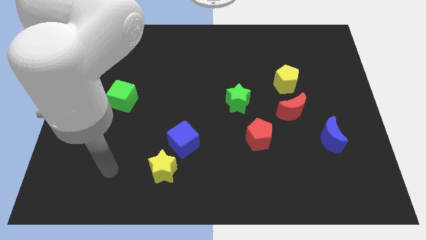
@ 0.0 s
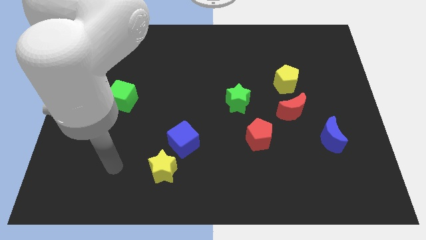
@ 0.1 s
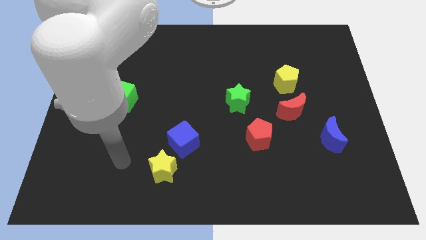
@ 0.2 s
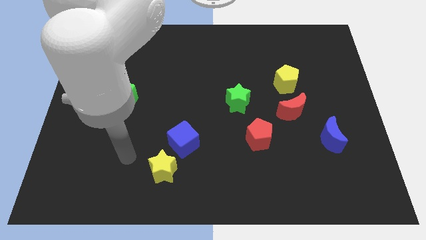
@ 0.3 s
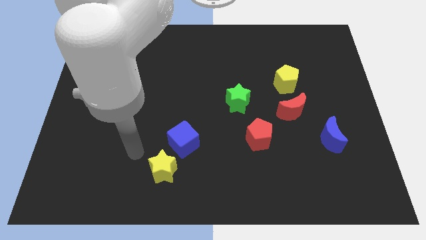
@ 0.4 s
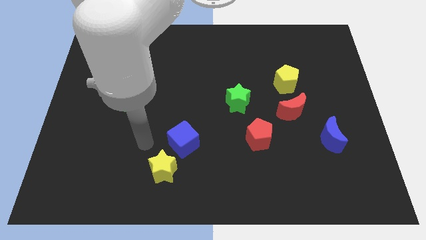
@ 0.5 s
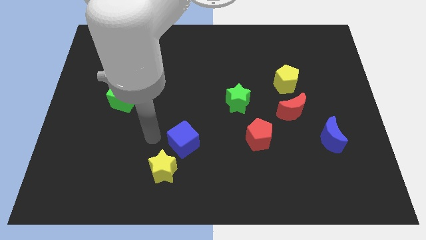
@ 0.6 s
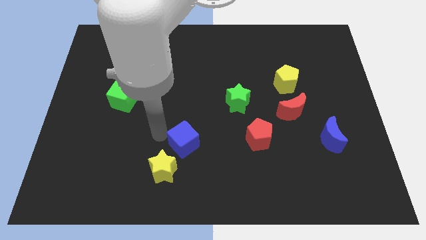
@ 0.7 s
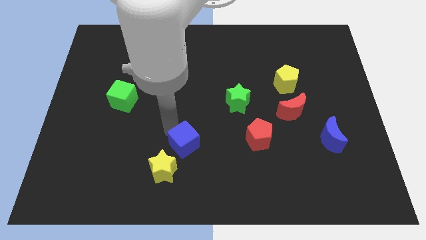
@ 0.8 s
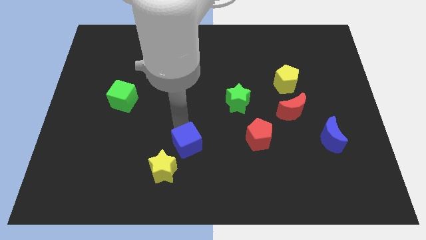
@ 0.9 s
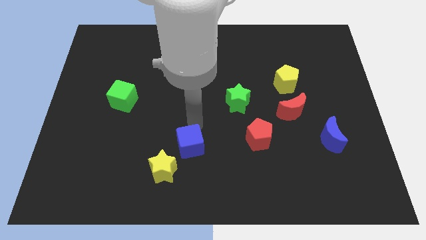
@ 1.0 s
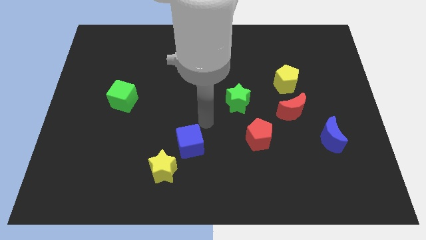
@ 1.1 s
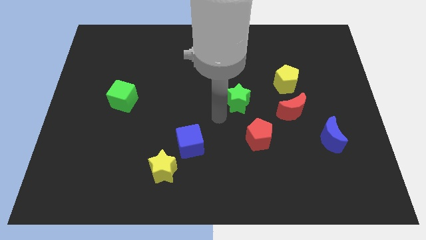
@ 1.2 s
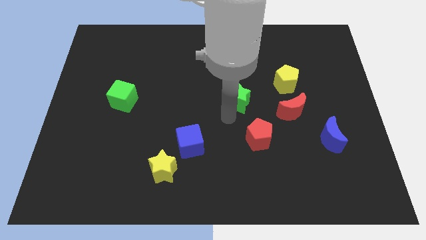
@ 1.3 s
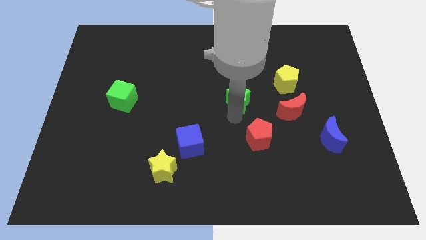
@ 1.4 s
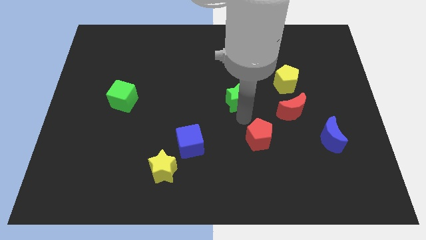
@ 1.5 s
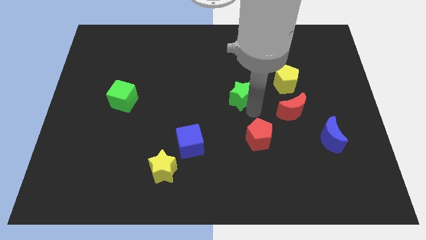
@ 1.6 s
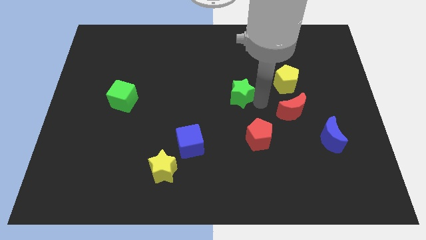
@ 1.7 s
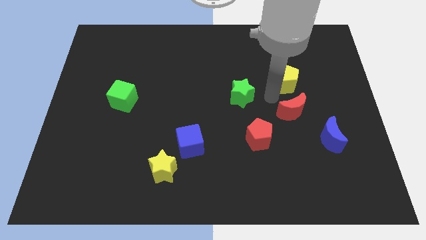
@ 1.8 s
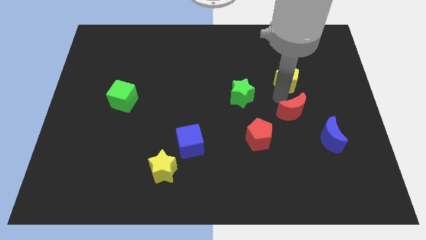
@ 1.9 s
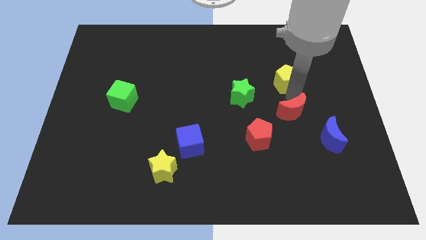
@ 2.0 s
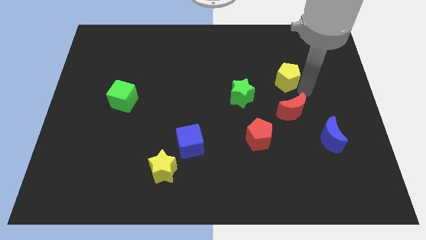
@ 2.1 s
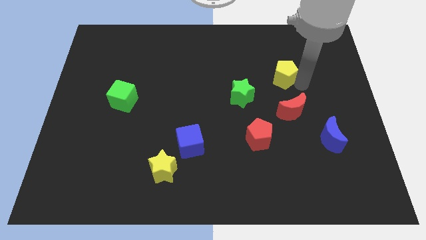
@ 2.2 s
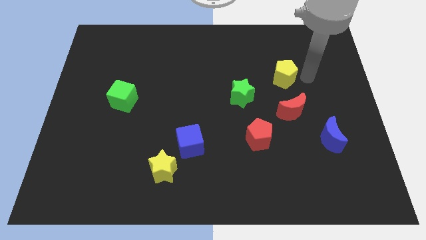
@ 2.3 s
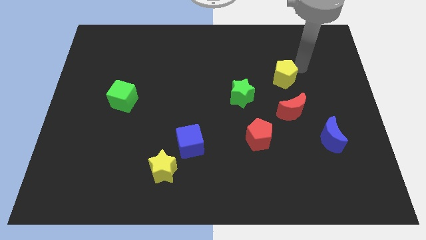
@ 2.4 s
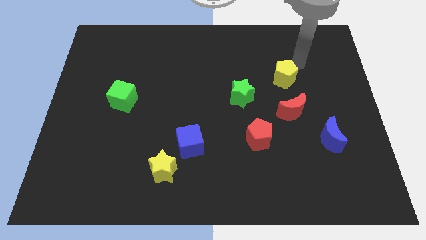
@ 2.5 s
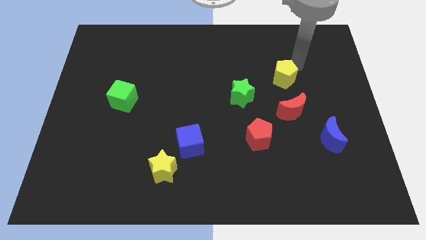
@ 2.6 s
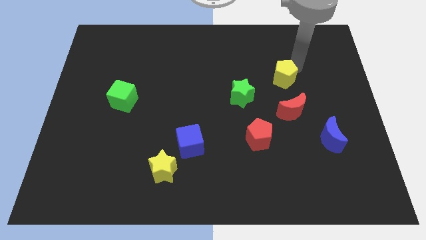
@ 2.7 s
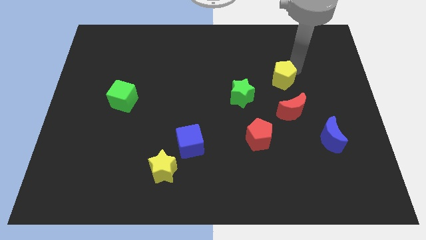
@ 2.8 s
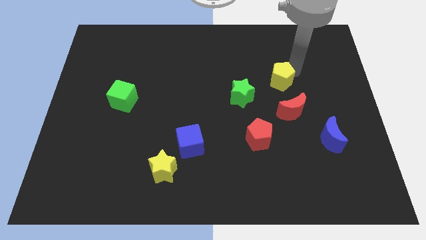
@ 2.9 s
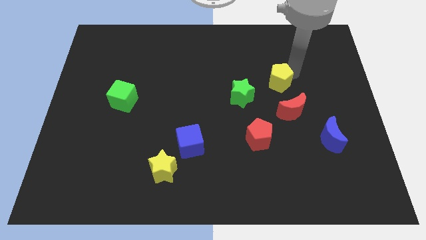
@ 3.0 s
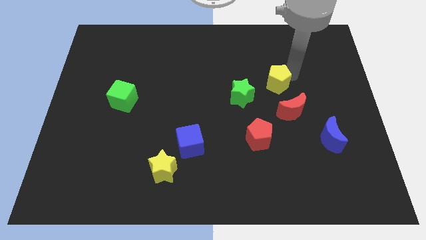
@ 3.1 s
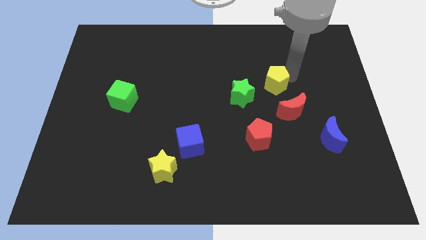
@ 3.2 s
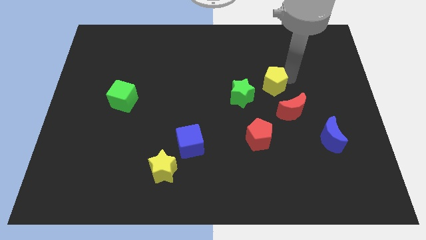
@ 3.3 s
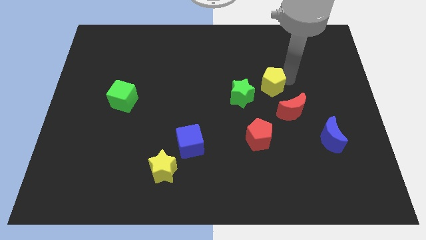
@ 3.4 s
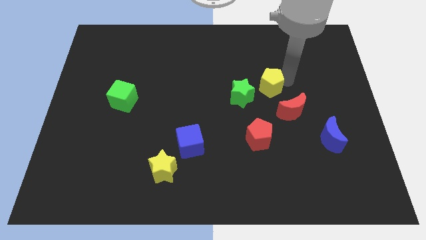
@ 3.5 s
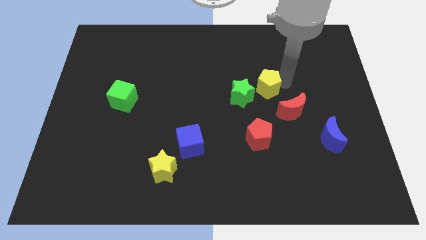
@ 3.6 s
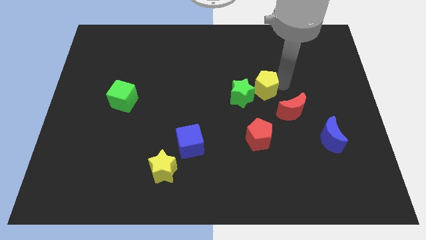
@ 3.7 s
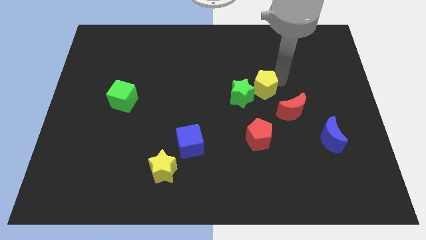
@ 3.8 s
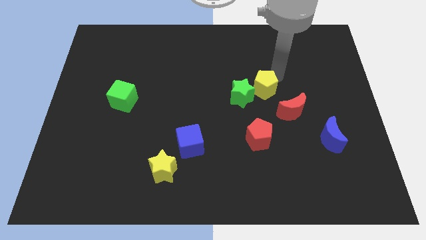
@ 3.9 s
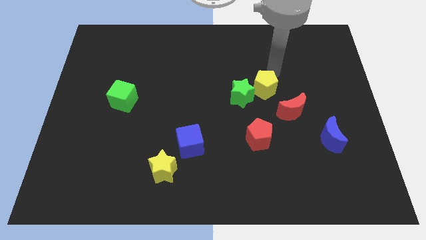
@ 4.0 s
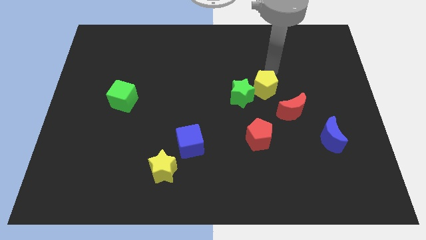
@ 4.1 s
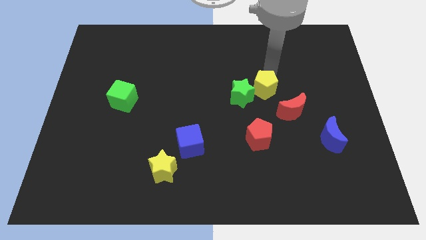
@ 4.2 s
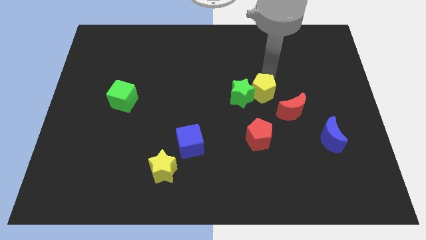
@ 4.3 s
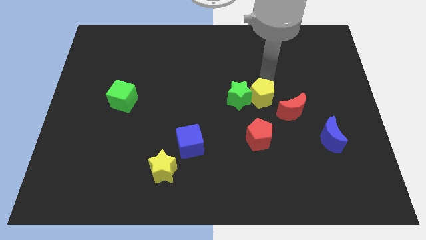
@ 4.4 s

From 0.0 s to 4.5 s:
slide the yellow pentagon a little bit downwards and then to the left

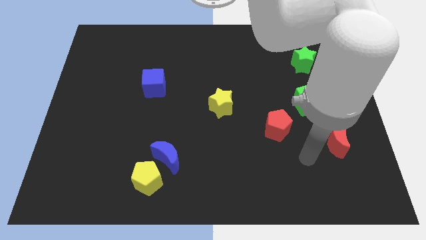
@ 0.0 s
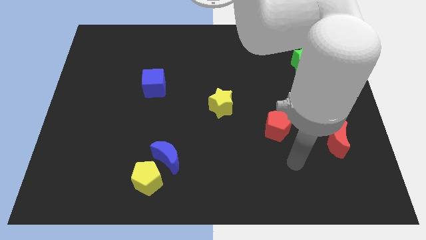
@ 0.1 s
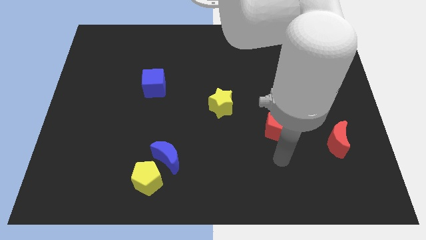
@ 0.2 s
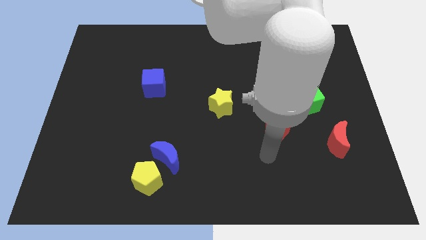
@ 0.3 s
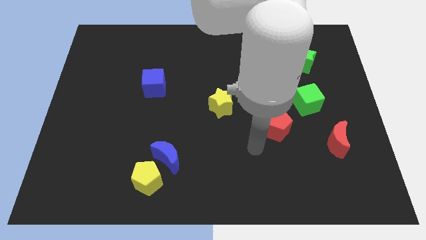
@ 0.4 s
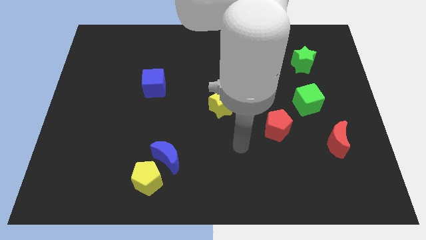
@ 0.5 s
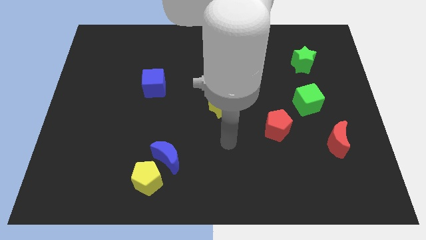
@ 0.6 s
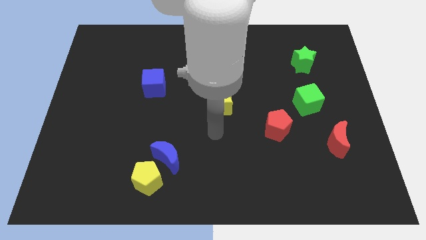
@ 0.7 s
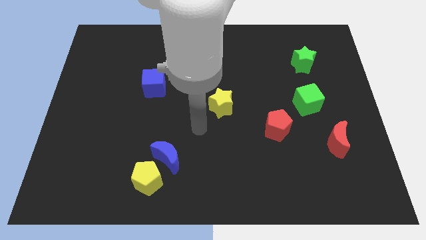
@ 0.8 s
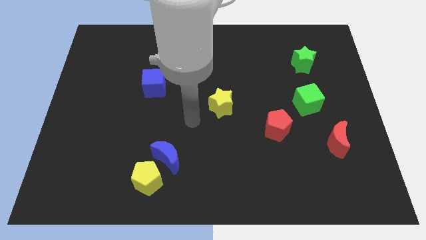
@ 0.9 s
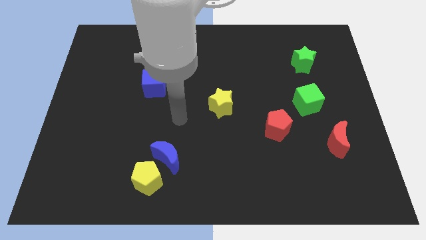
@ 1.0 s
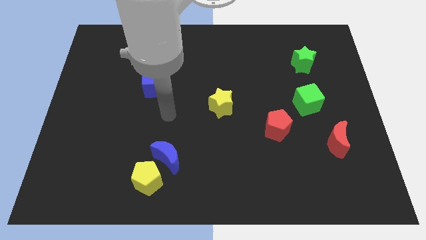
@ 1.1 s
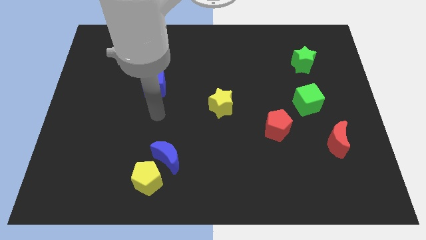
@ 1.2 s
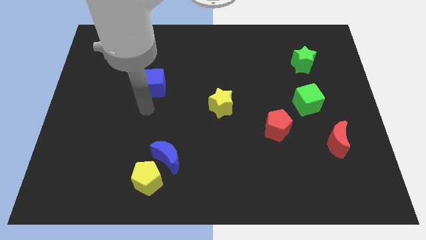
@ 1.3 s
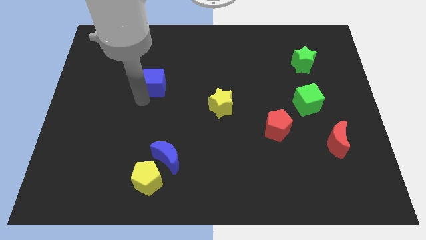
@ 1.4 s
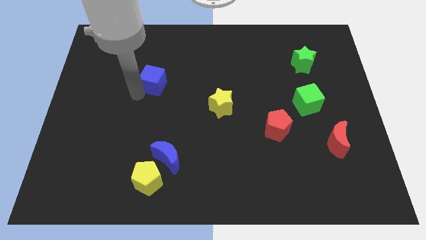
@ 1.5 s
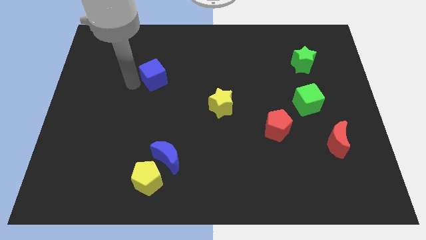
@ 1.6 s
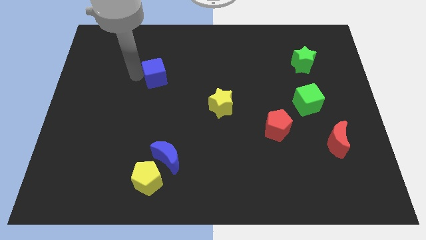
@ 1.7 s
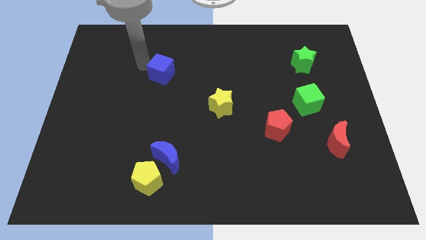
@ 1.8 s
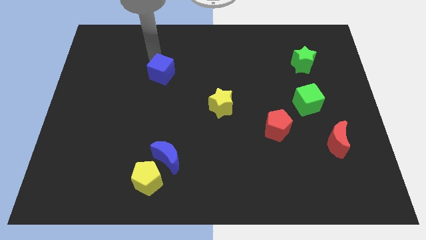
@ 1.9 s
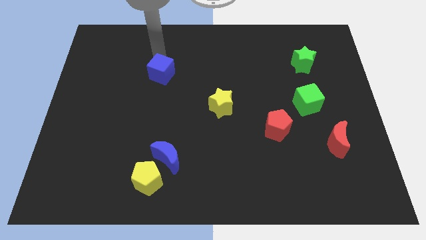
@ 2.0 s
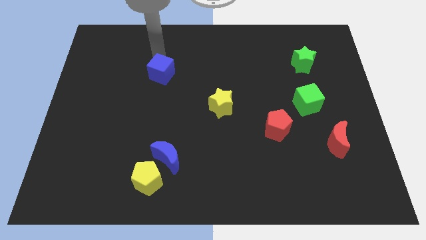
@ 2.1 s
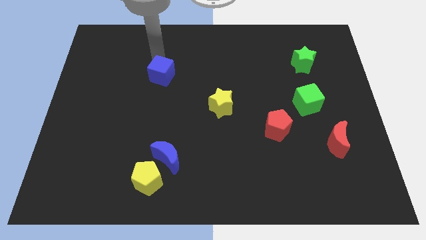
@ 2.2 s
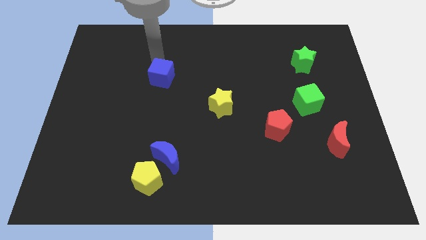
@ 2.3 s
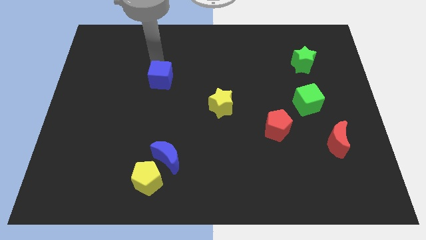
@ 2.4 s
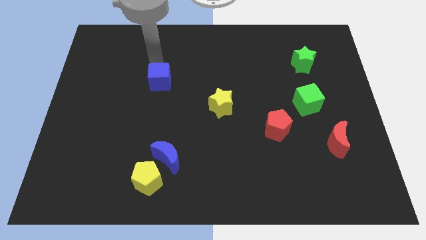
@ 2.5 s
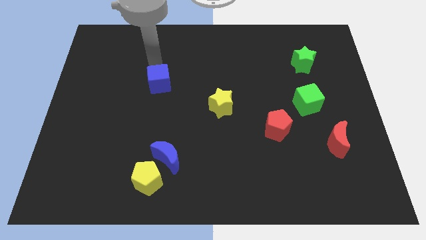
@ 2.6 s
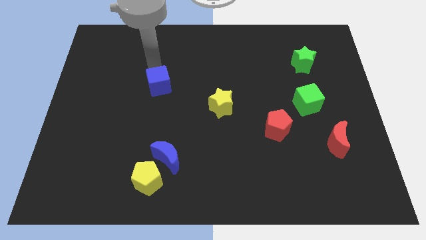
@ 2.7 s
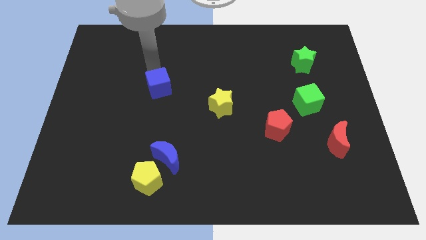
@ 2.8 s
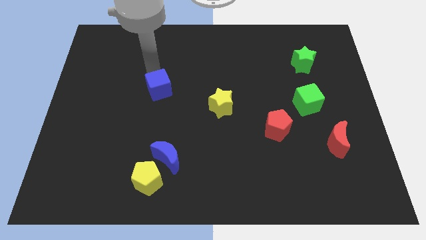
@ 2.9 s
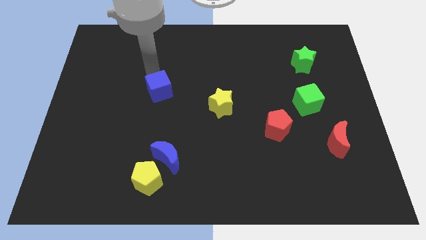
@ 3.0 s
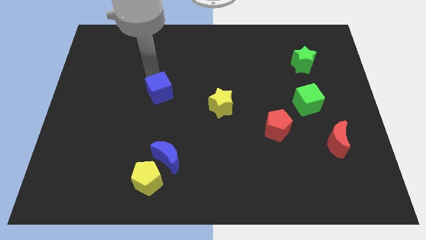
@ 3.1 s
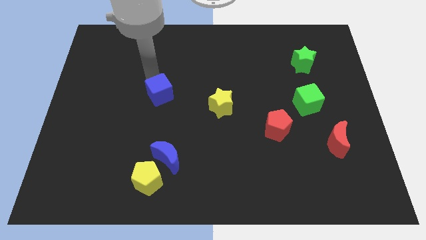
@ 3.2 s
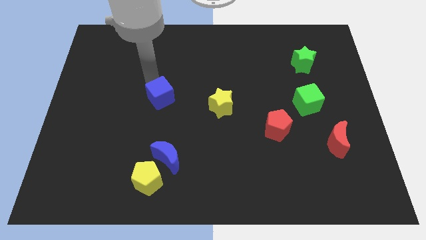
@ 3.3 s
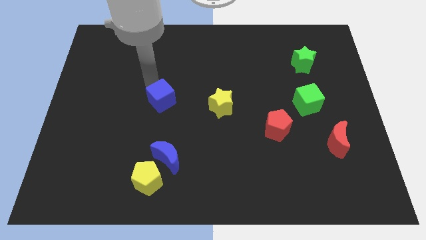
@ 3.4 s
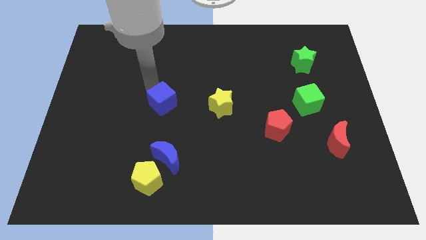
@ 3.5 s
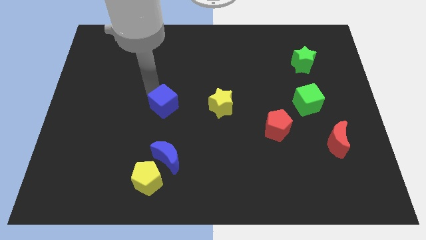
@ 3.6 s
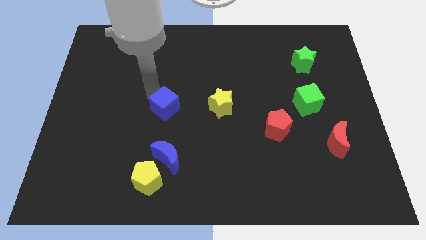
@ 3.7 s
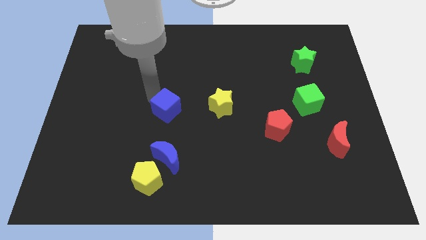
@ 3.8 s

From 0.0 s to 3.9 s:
slightly push the blue cube down and right
